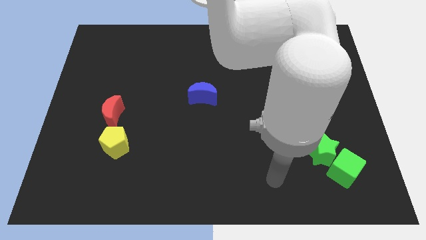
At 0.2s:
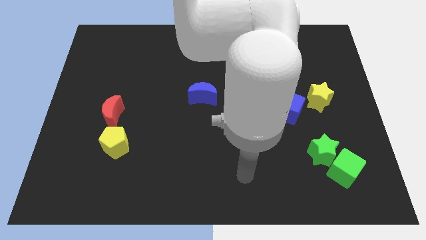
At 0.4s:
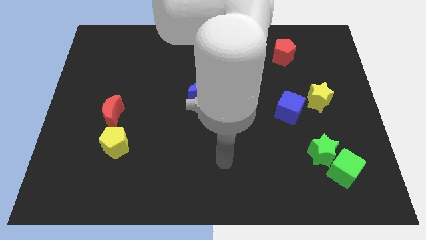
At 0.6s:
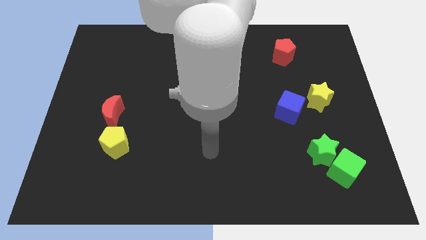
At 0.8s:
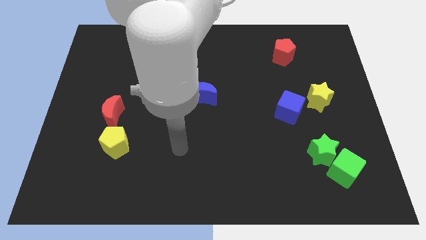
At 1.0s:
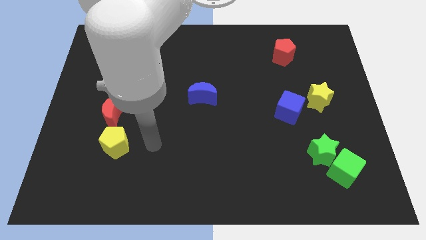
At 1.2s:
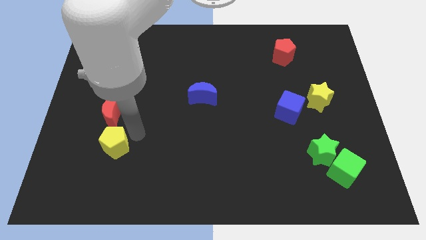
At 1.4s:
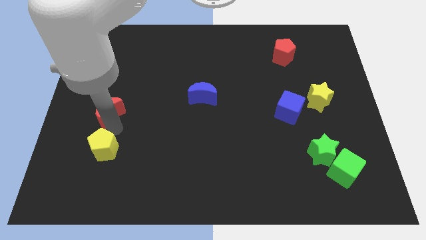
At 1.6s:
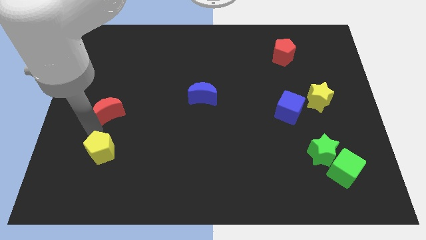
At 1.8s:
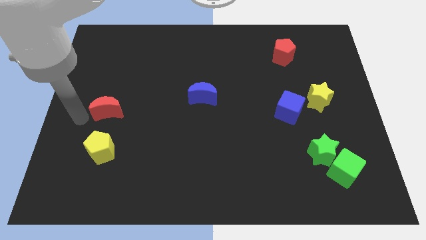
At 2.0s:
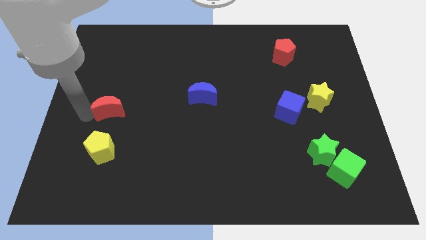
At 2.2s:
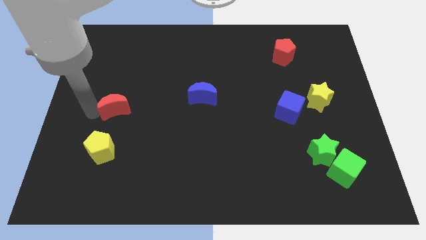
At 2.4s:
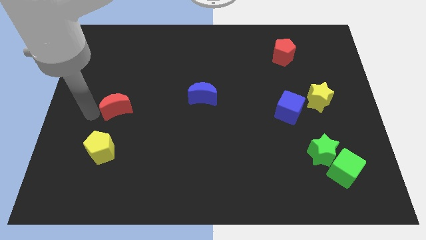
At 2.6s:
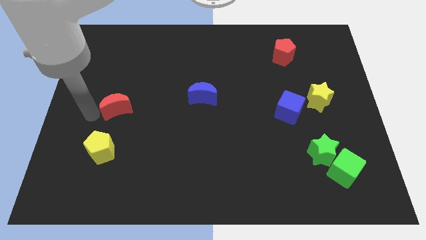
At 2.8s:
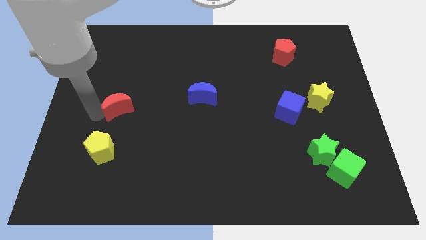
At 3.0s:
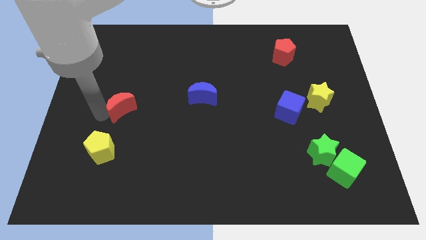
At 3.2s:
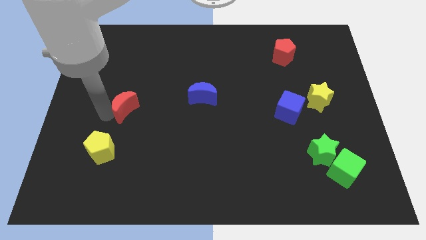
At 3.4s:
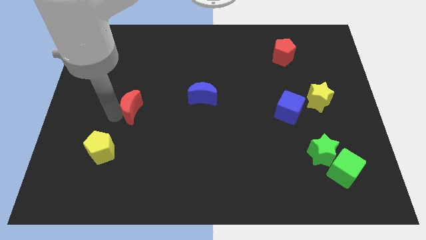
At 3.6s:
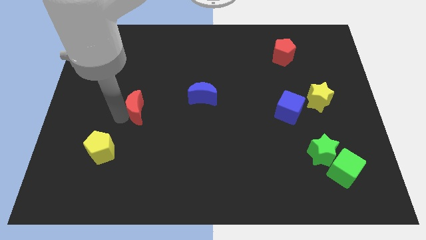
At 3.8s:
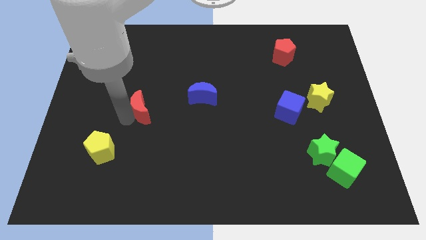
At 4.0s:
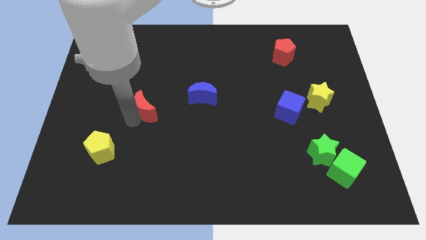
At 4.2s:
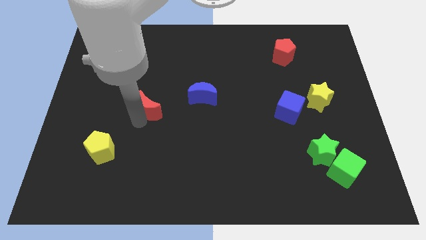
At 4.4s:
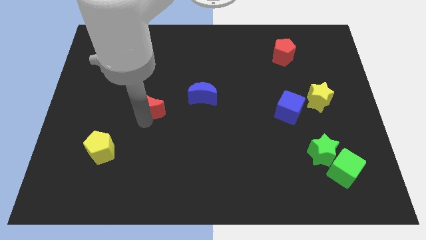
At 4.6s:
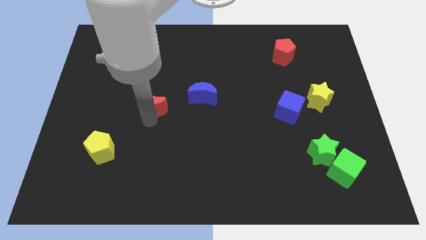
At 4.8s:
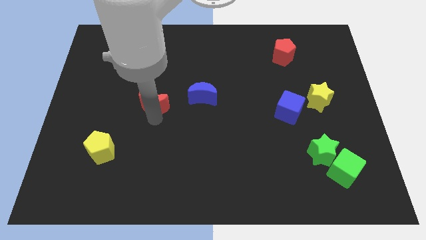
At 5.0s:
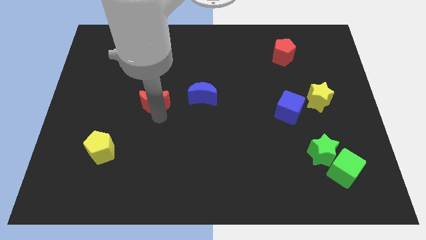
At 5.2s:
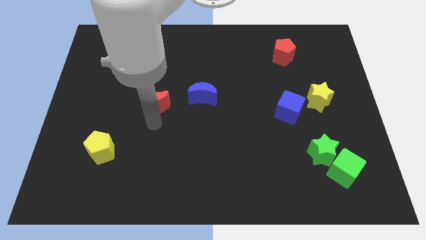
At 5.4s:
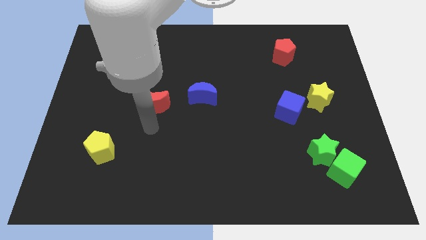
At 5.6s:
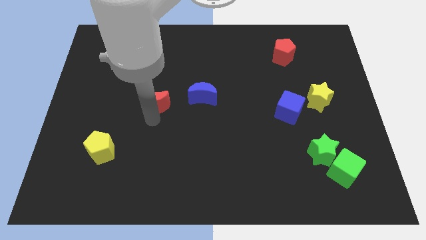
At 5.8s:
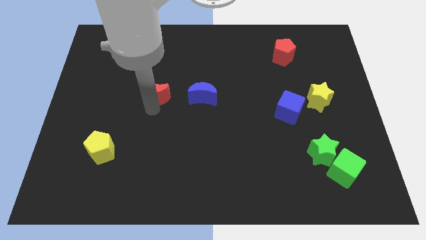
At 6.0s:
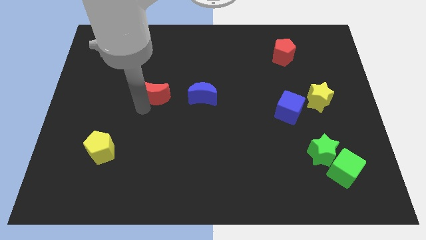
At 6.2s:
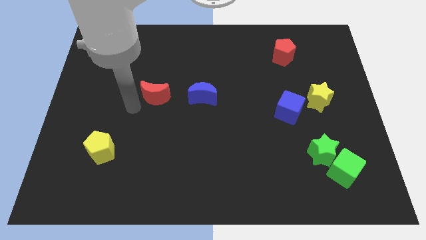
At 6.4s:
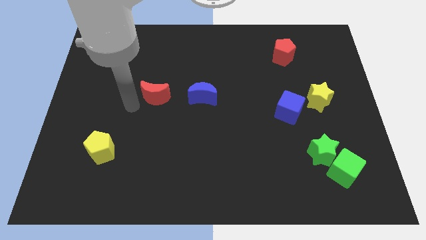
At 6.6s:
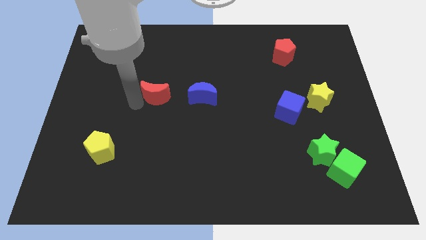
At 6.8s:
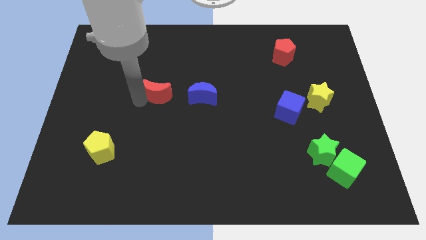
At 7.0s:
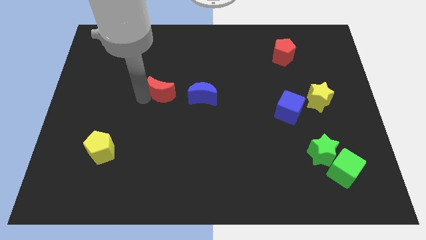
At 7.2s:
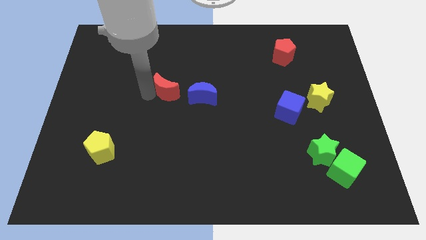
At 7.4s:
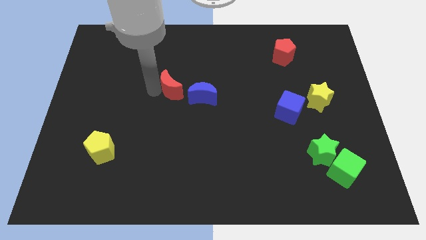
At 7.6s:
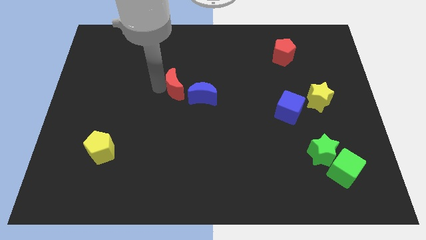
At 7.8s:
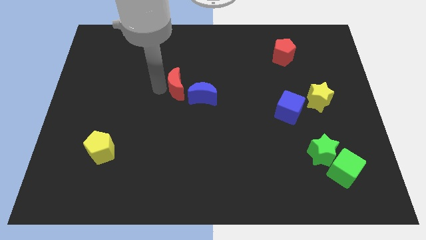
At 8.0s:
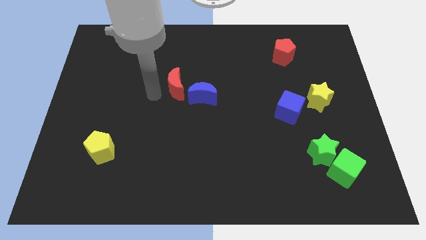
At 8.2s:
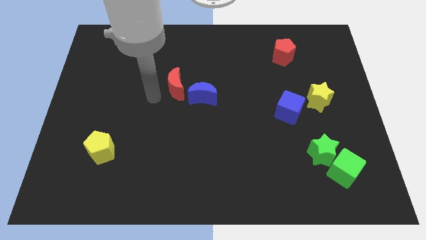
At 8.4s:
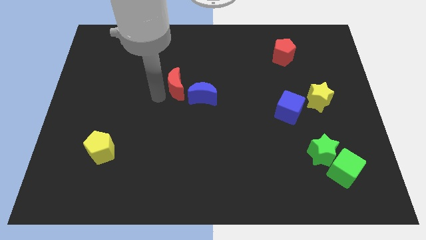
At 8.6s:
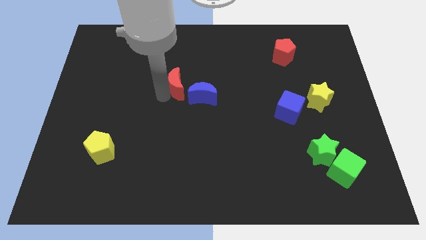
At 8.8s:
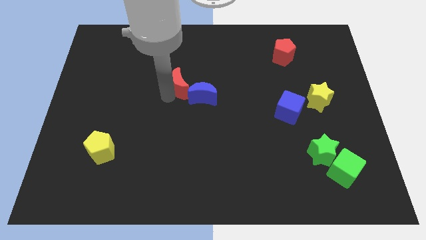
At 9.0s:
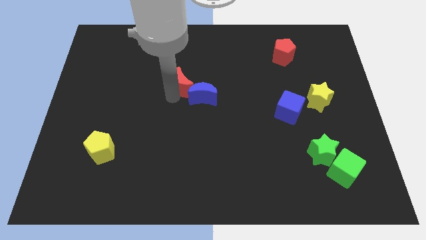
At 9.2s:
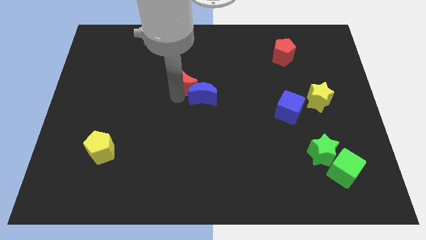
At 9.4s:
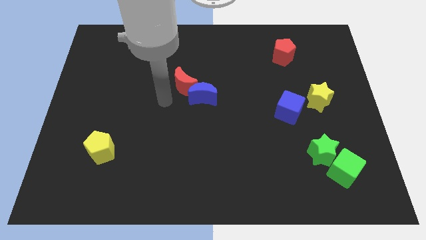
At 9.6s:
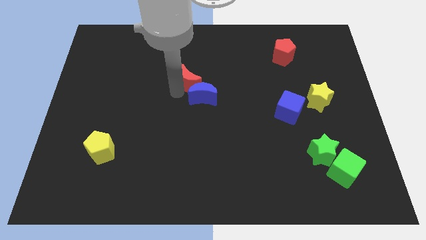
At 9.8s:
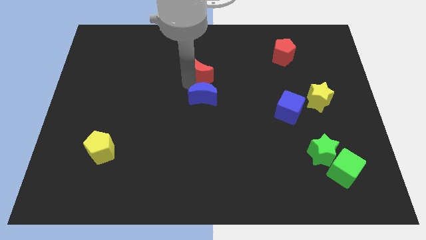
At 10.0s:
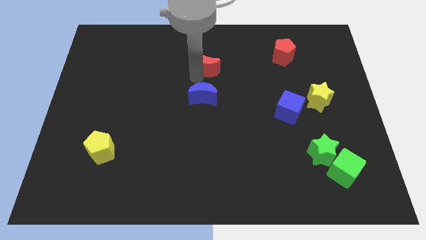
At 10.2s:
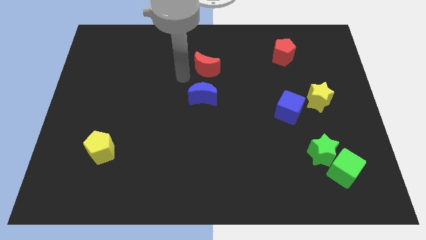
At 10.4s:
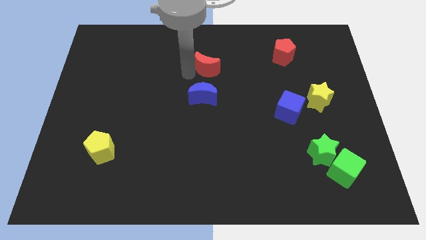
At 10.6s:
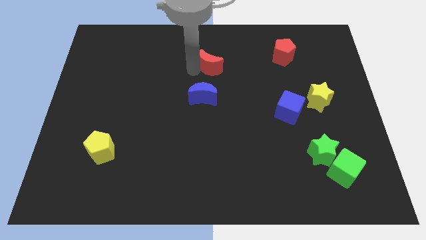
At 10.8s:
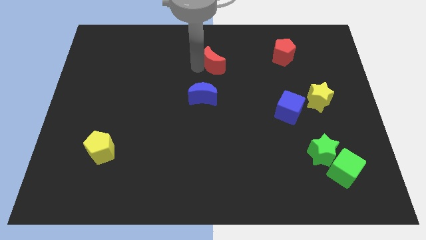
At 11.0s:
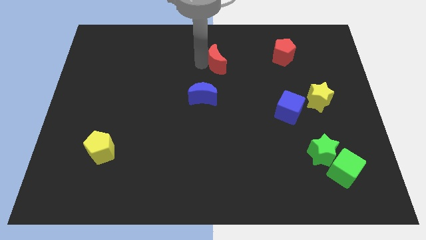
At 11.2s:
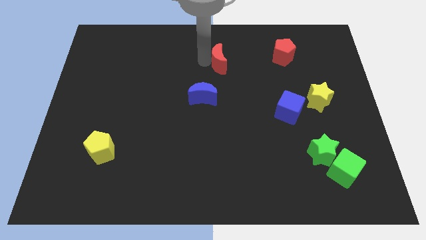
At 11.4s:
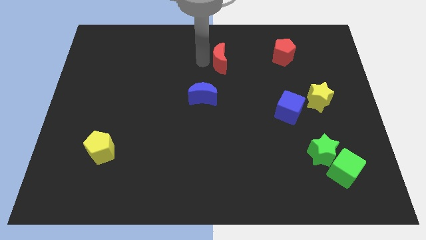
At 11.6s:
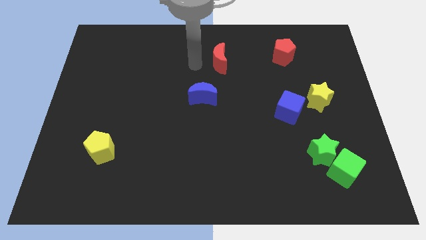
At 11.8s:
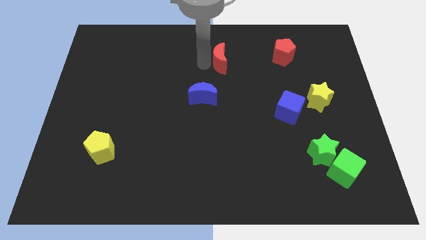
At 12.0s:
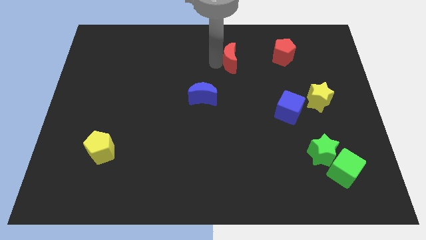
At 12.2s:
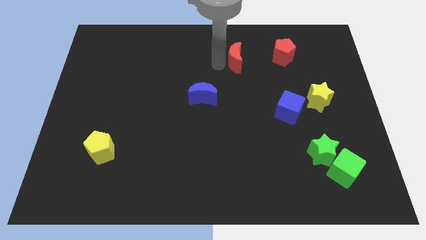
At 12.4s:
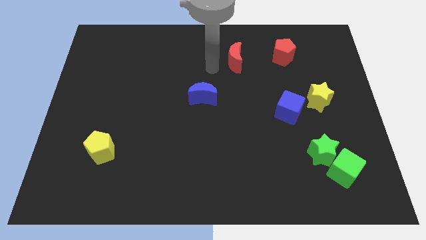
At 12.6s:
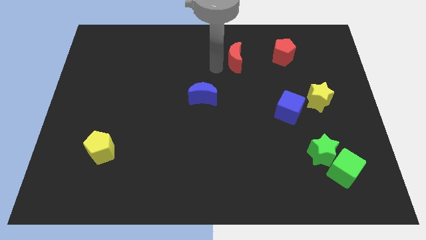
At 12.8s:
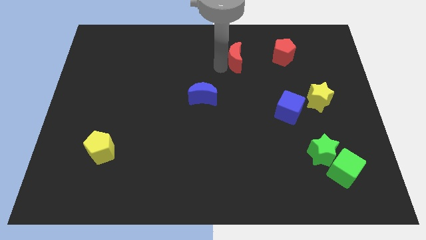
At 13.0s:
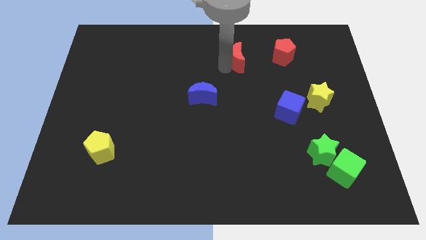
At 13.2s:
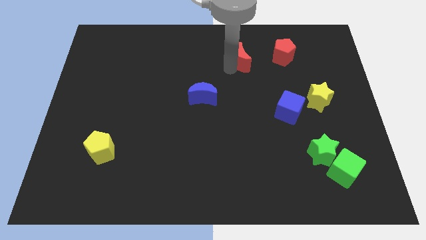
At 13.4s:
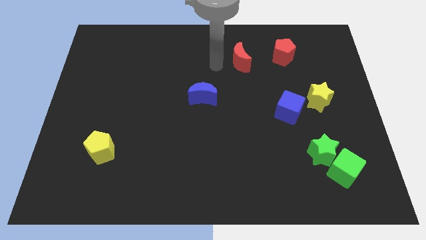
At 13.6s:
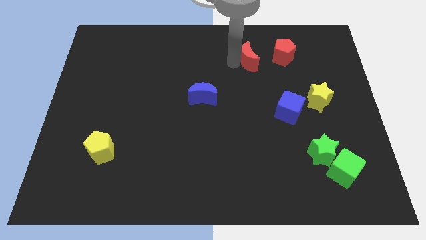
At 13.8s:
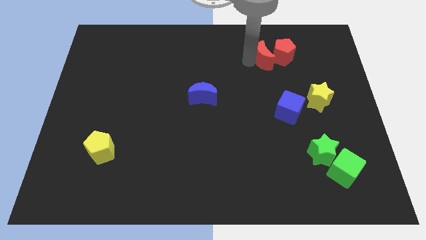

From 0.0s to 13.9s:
push the red moon next to the red pentagon

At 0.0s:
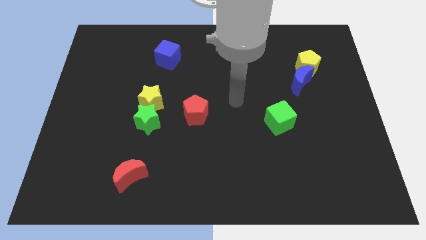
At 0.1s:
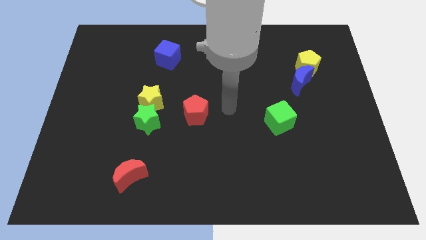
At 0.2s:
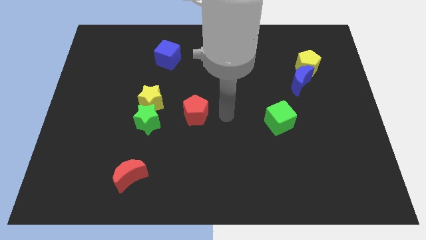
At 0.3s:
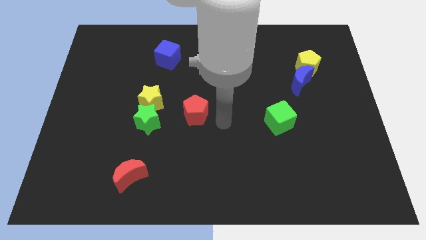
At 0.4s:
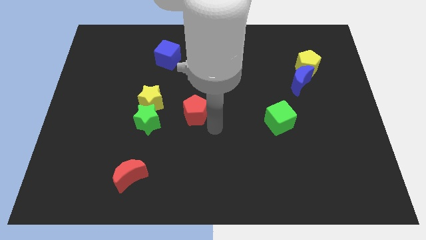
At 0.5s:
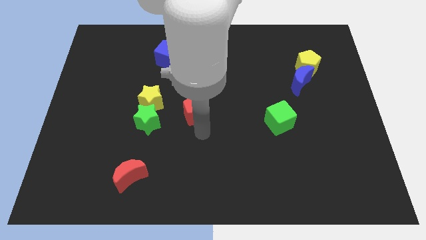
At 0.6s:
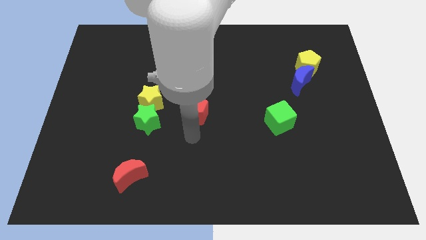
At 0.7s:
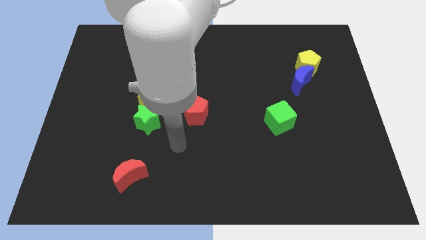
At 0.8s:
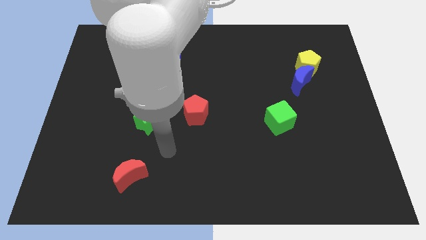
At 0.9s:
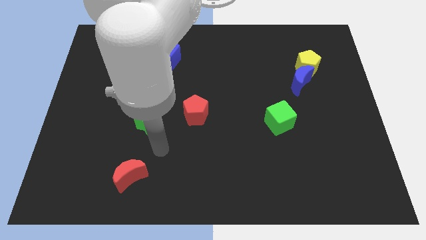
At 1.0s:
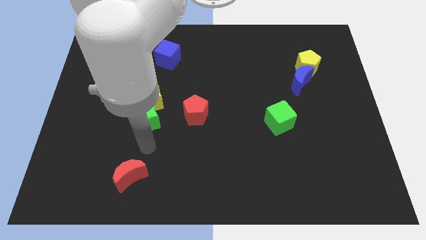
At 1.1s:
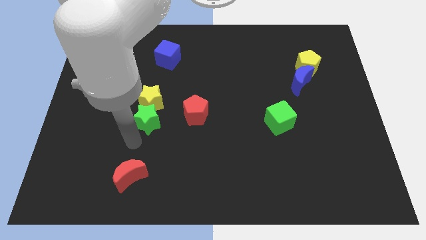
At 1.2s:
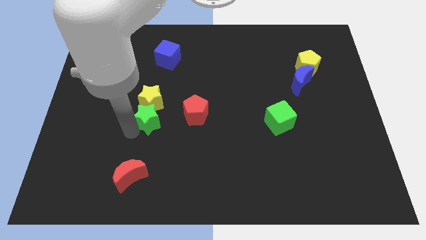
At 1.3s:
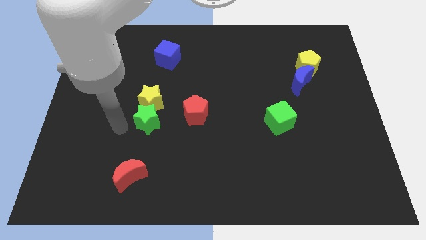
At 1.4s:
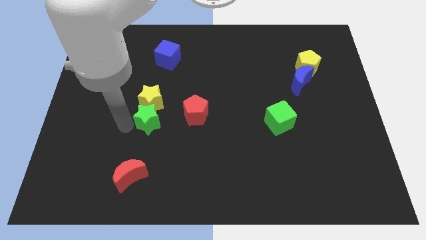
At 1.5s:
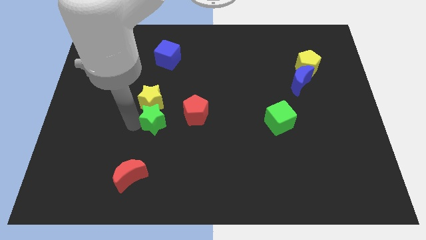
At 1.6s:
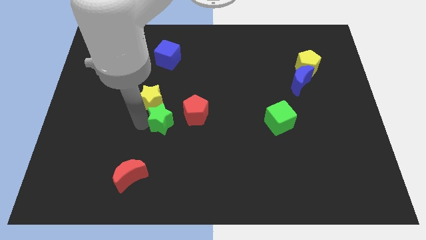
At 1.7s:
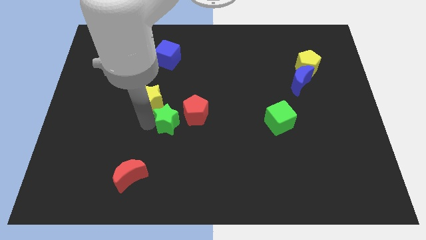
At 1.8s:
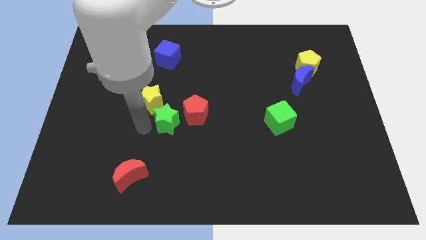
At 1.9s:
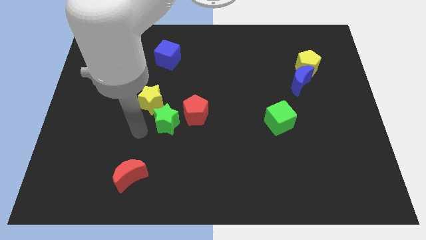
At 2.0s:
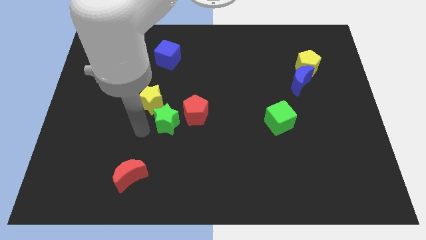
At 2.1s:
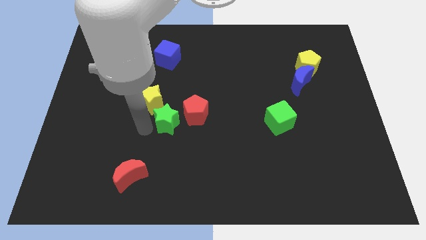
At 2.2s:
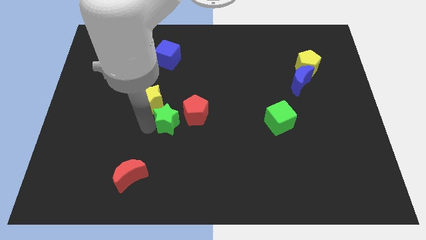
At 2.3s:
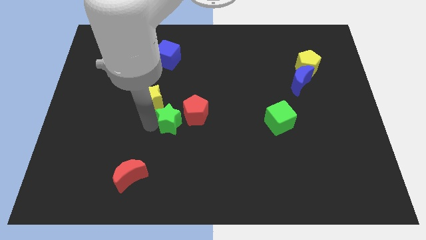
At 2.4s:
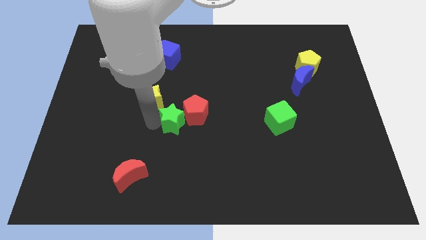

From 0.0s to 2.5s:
put the green star to the red pentagon
